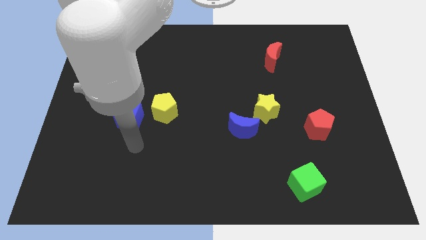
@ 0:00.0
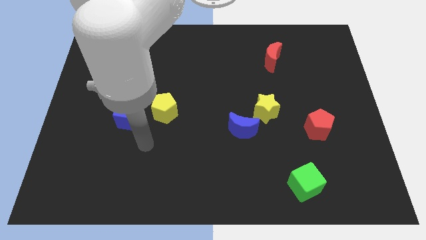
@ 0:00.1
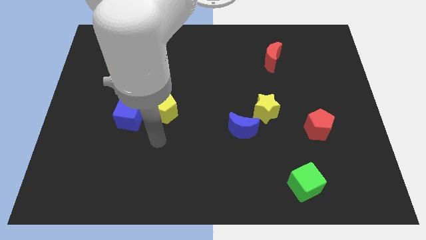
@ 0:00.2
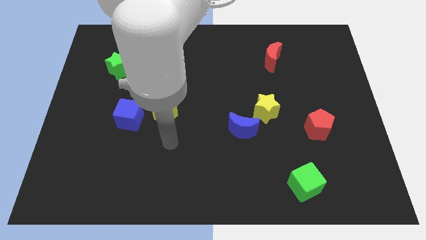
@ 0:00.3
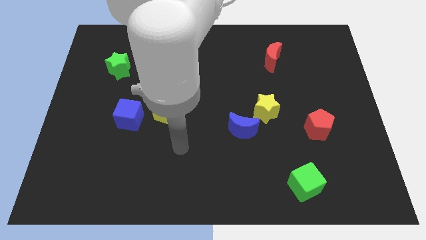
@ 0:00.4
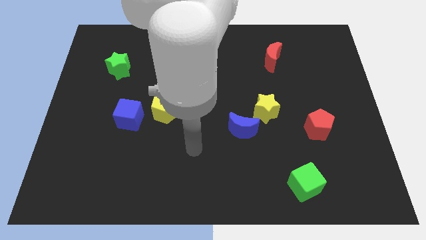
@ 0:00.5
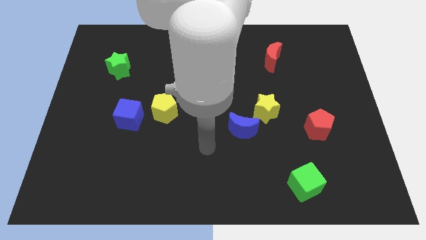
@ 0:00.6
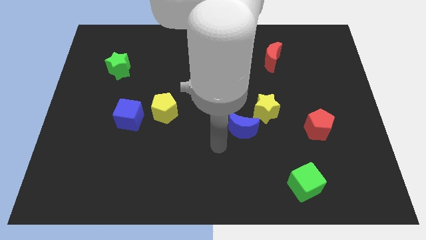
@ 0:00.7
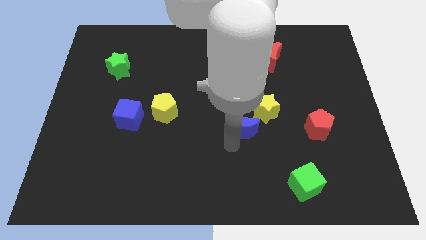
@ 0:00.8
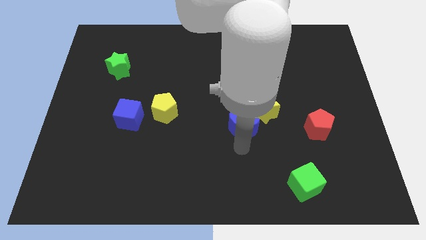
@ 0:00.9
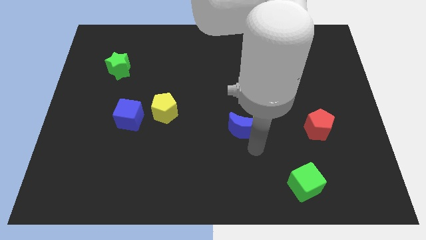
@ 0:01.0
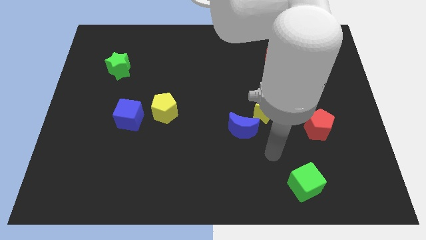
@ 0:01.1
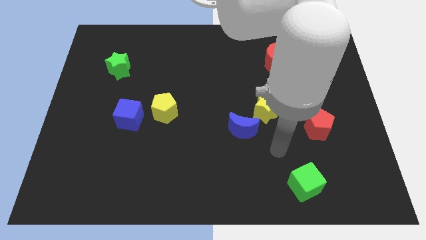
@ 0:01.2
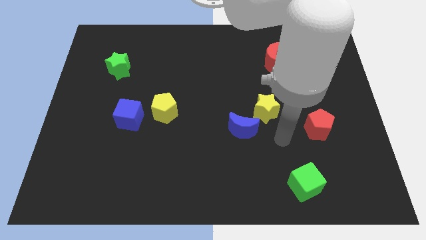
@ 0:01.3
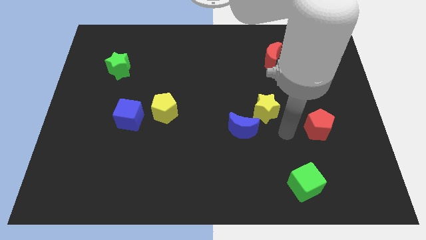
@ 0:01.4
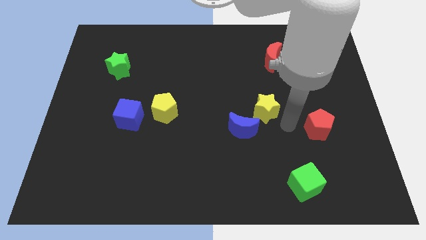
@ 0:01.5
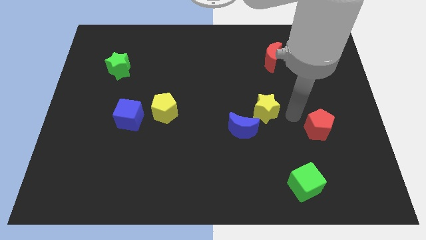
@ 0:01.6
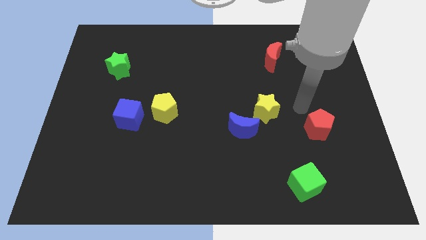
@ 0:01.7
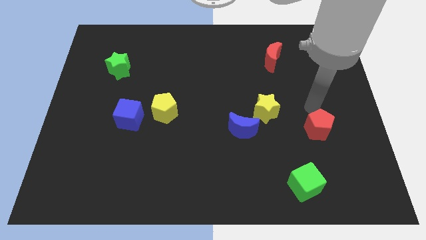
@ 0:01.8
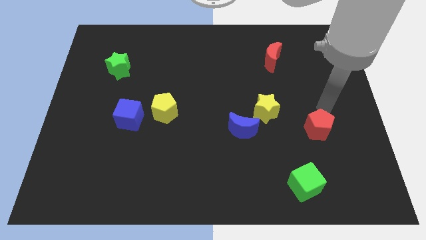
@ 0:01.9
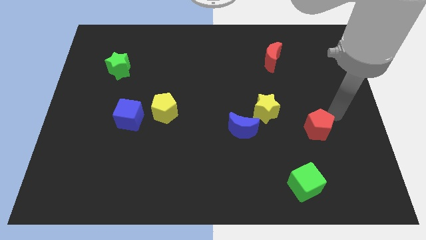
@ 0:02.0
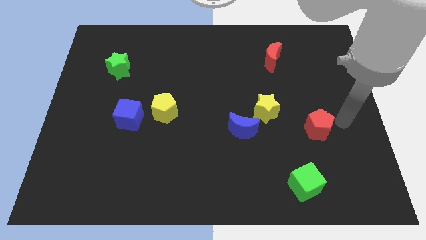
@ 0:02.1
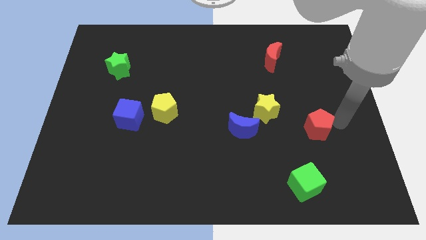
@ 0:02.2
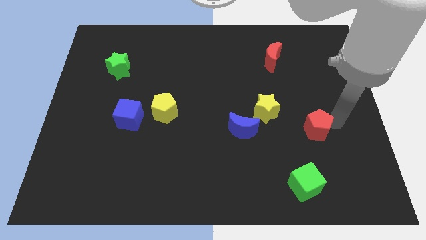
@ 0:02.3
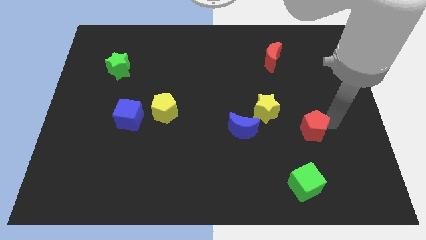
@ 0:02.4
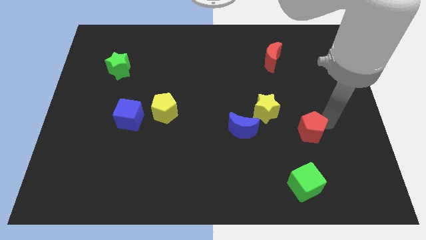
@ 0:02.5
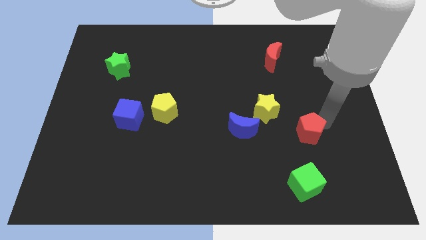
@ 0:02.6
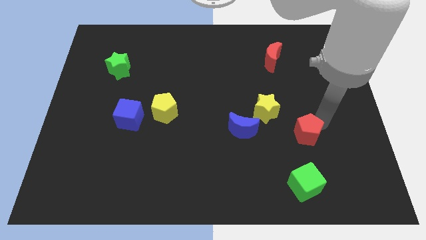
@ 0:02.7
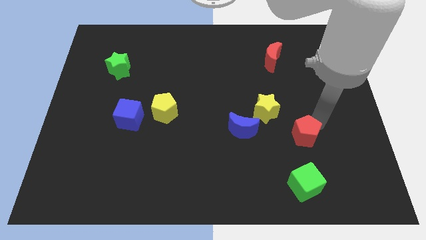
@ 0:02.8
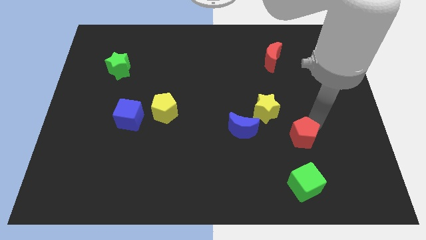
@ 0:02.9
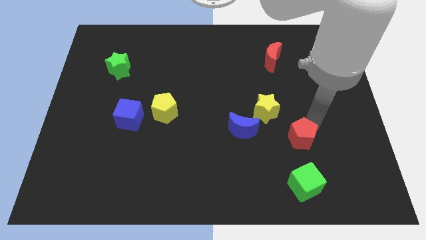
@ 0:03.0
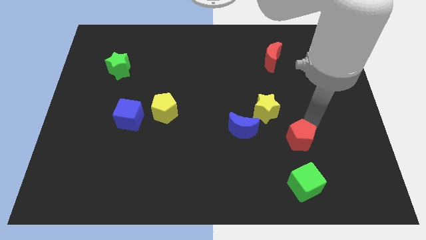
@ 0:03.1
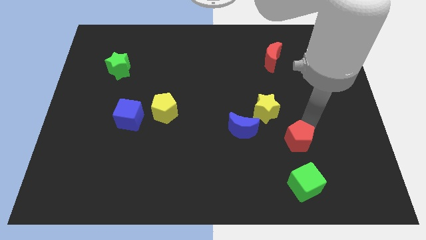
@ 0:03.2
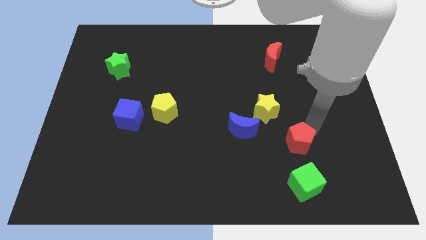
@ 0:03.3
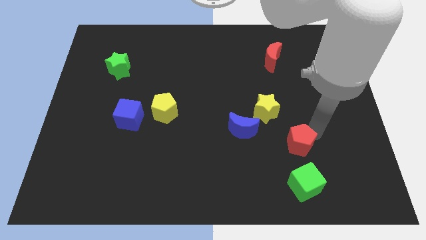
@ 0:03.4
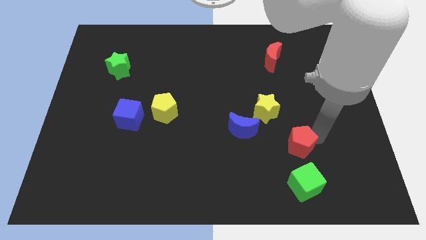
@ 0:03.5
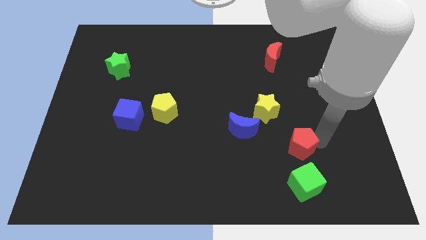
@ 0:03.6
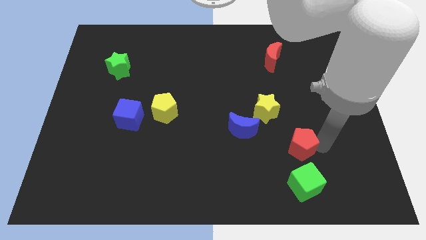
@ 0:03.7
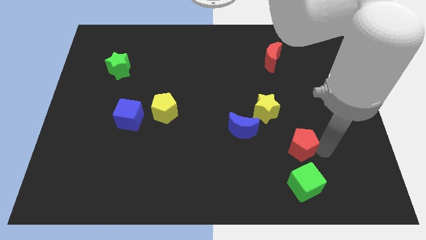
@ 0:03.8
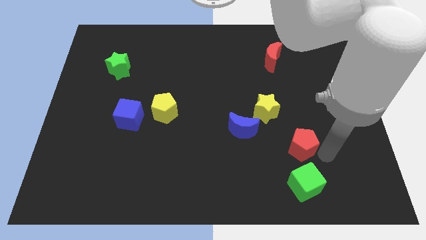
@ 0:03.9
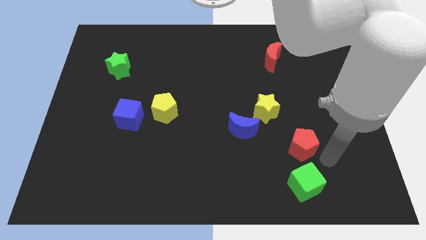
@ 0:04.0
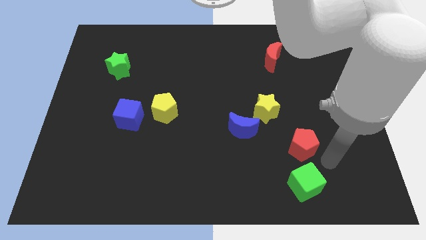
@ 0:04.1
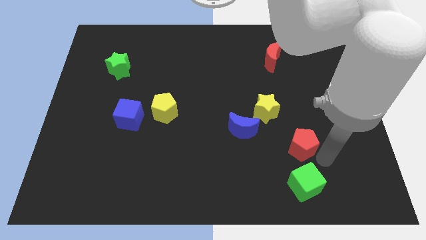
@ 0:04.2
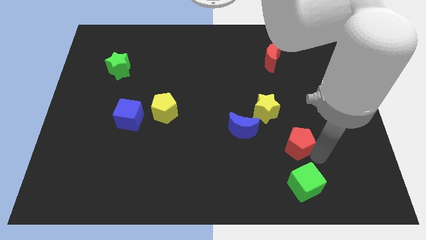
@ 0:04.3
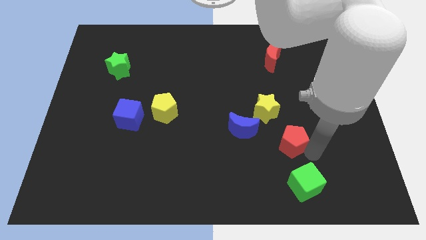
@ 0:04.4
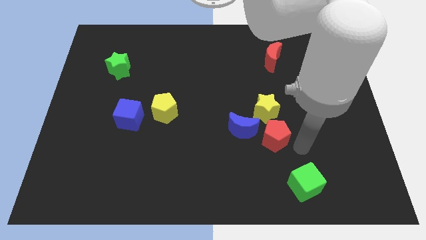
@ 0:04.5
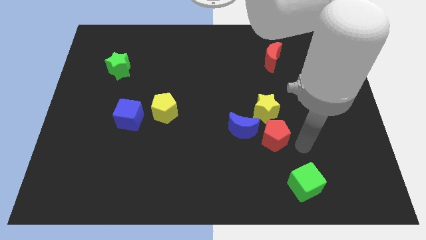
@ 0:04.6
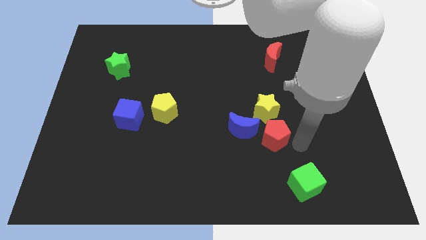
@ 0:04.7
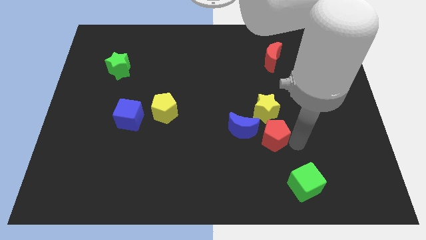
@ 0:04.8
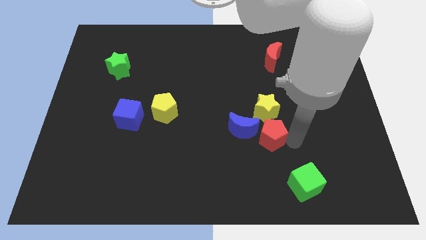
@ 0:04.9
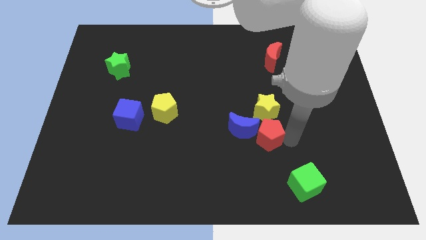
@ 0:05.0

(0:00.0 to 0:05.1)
put the red pentagon to the blue moon

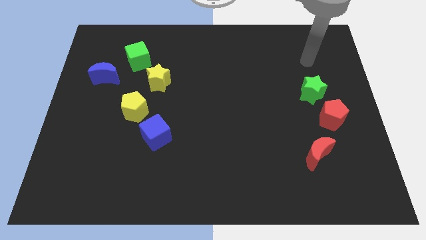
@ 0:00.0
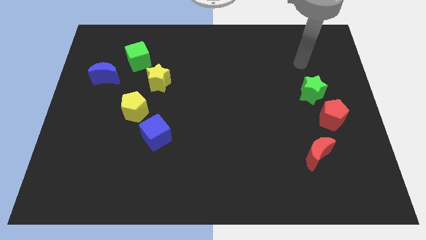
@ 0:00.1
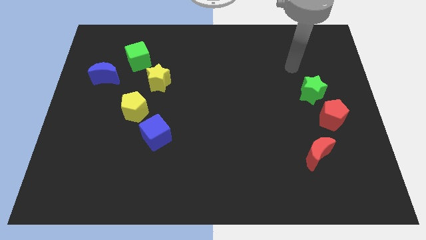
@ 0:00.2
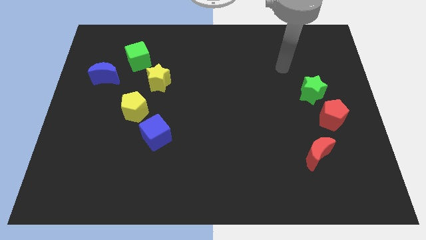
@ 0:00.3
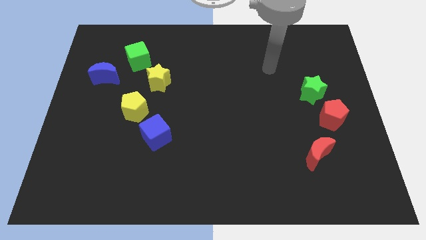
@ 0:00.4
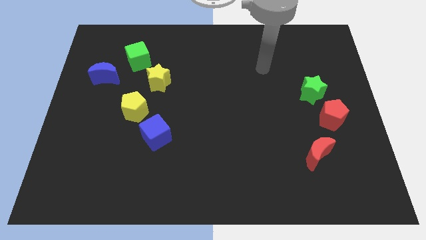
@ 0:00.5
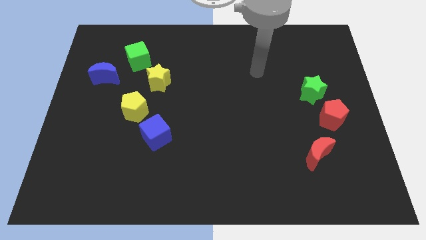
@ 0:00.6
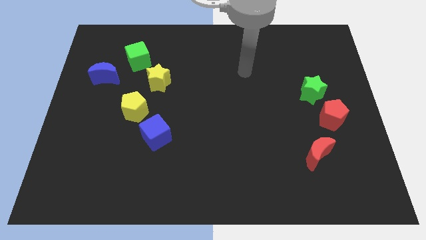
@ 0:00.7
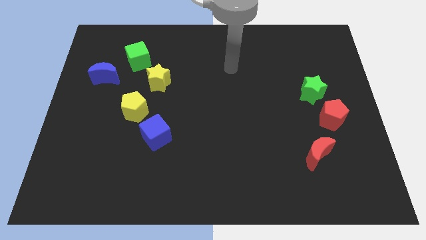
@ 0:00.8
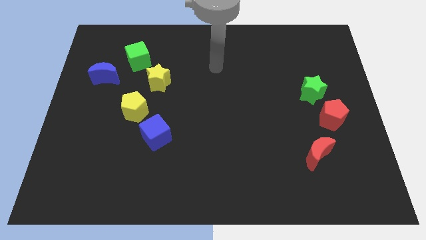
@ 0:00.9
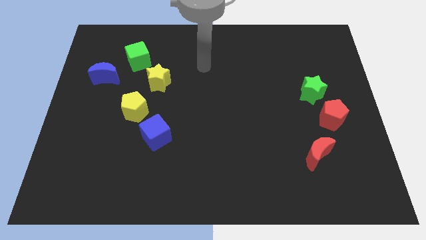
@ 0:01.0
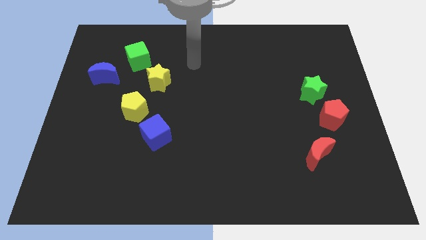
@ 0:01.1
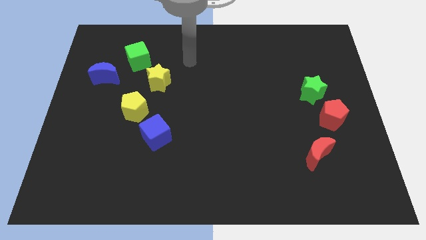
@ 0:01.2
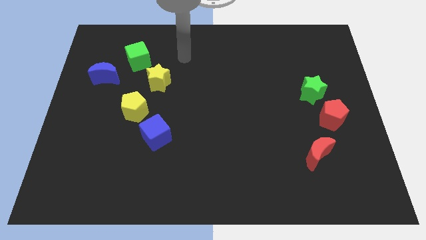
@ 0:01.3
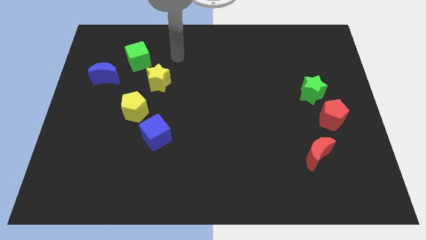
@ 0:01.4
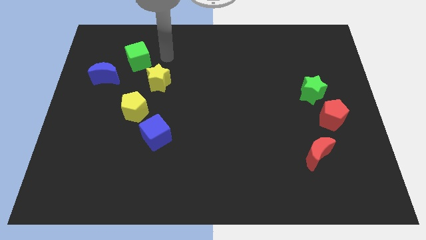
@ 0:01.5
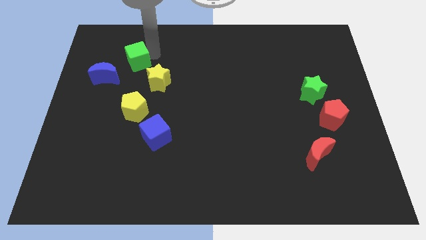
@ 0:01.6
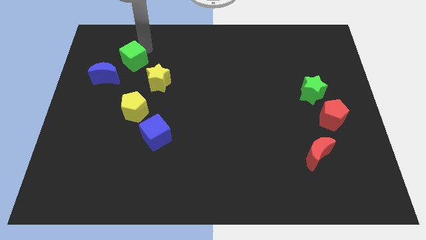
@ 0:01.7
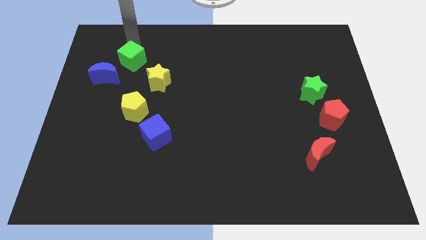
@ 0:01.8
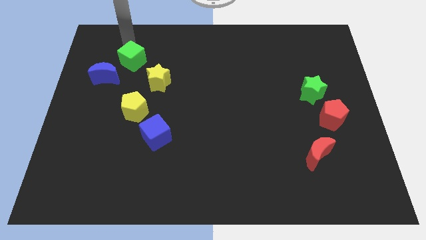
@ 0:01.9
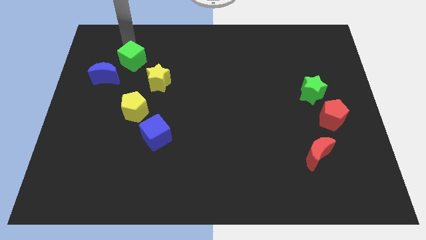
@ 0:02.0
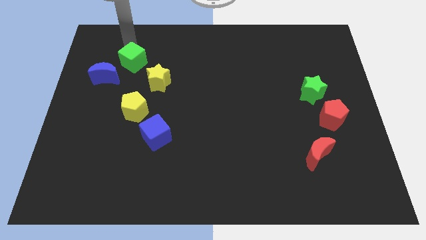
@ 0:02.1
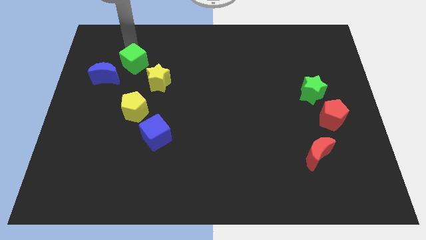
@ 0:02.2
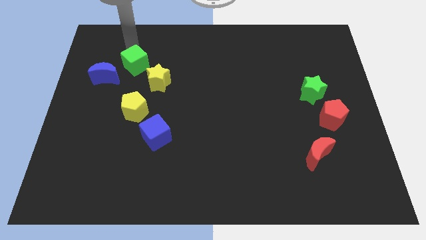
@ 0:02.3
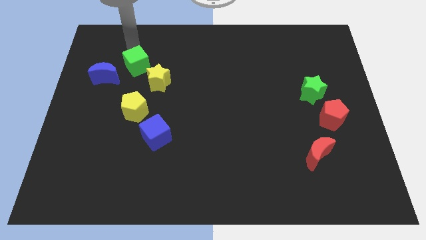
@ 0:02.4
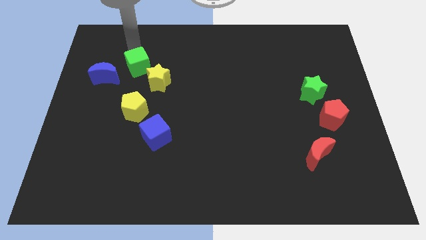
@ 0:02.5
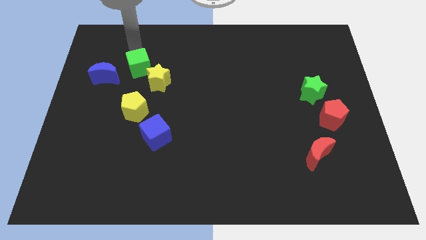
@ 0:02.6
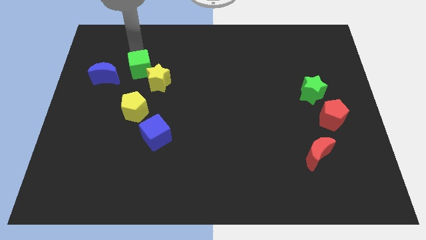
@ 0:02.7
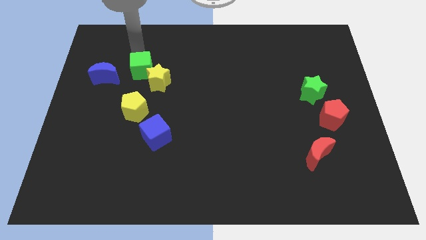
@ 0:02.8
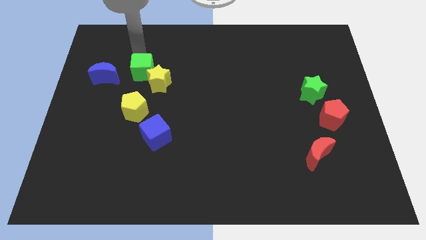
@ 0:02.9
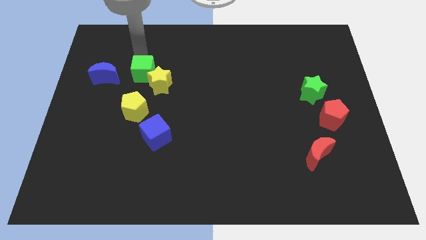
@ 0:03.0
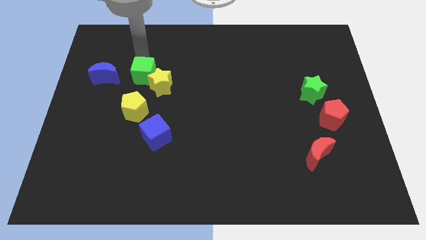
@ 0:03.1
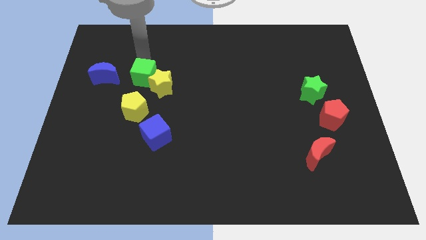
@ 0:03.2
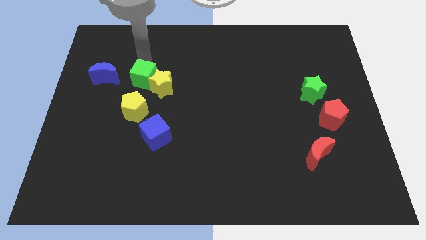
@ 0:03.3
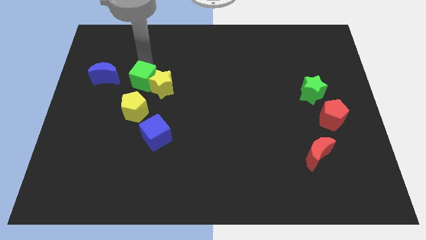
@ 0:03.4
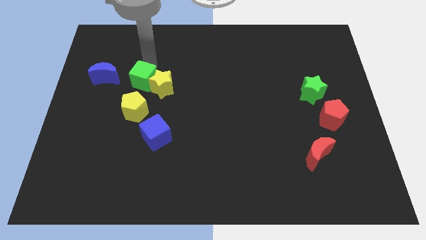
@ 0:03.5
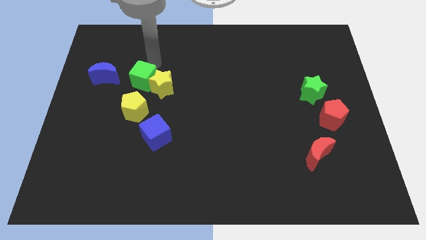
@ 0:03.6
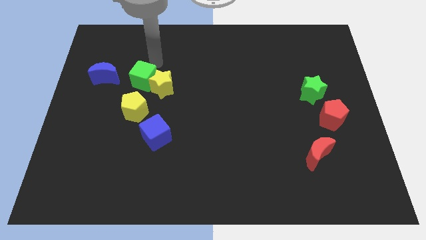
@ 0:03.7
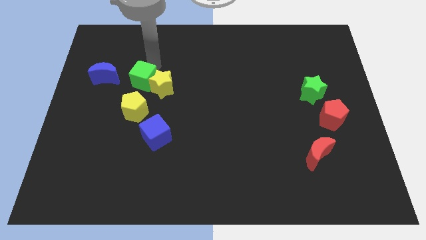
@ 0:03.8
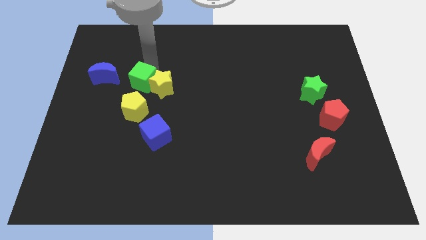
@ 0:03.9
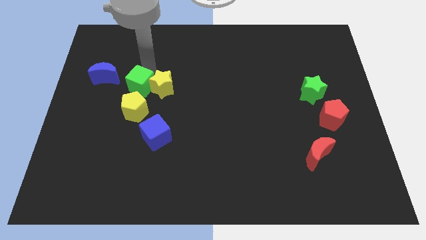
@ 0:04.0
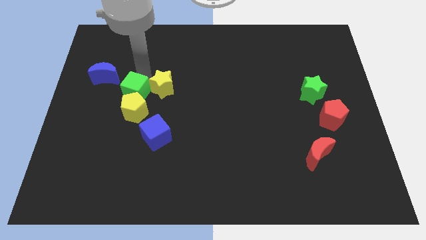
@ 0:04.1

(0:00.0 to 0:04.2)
put the green cube to the yellow pentagon
